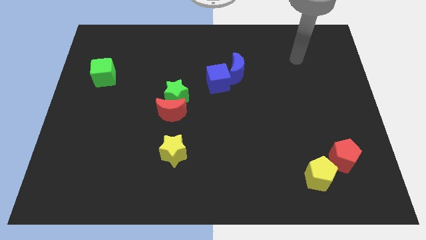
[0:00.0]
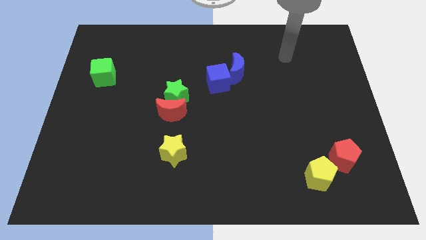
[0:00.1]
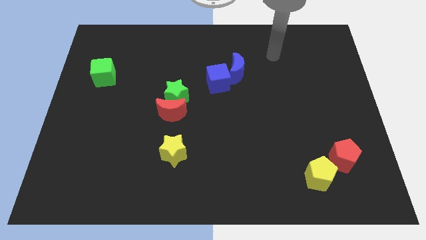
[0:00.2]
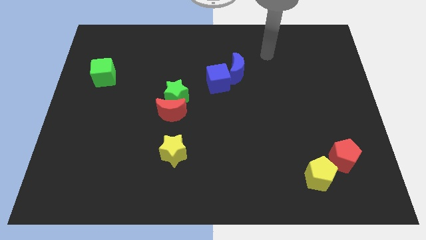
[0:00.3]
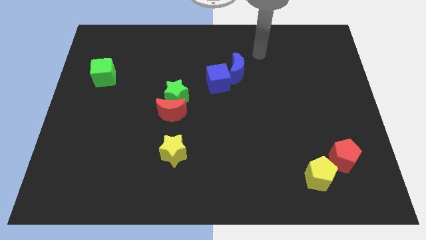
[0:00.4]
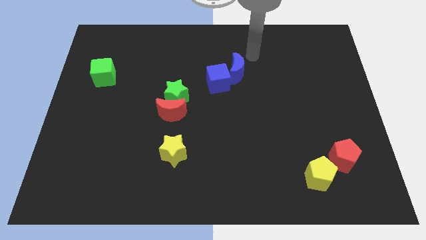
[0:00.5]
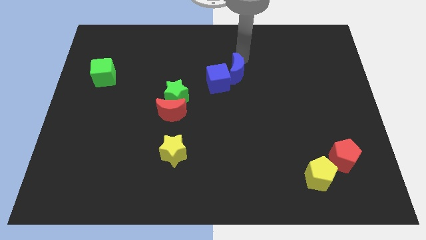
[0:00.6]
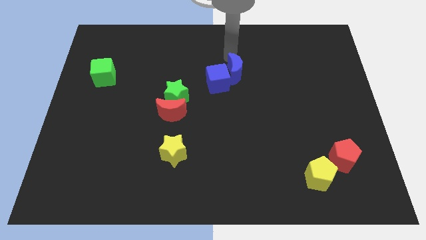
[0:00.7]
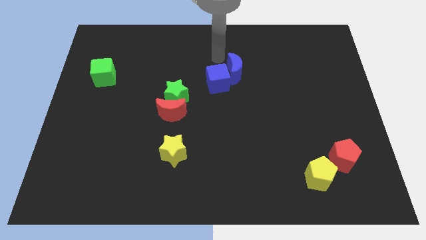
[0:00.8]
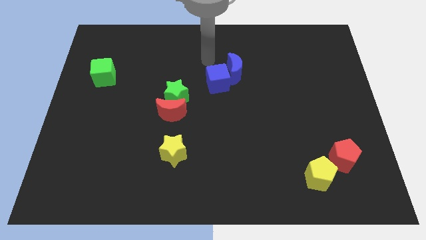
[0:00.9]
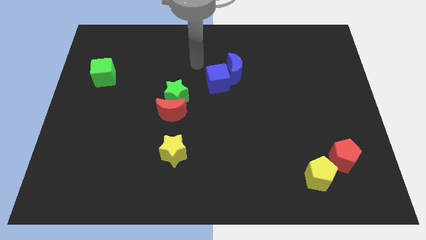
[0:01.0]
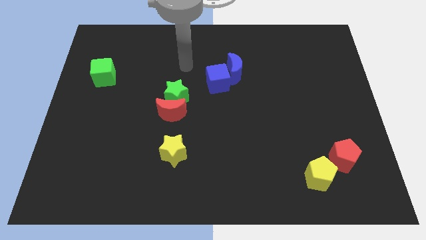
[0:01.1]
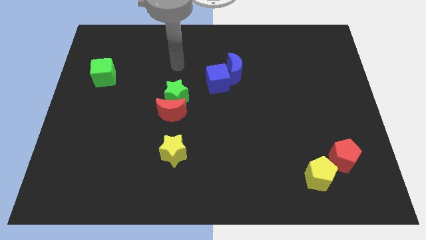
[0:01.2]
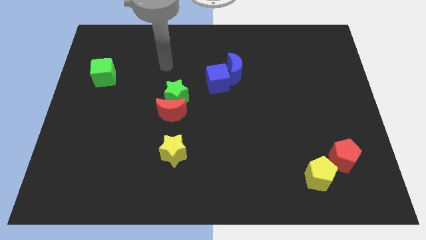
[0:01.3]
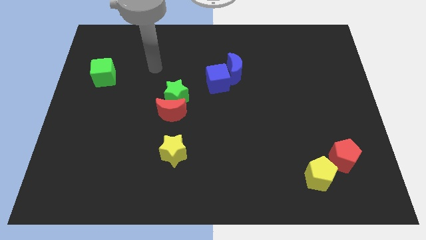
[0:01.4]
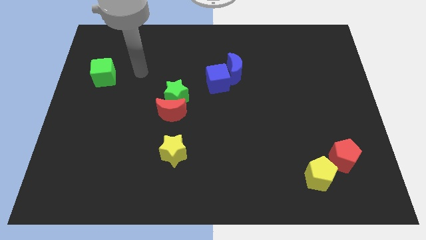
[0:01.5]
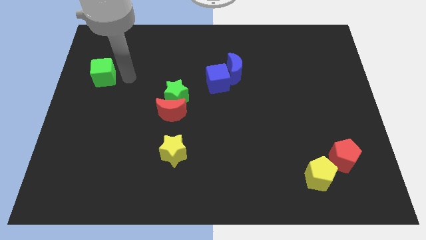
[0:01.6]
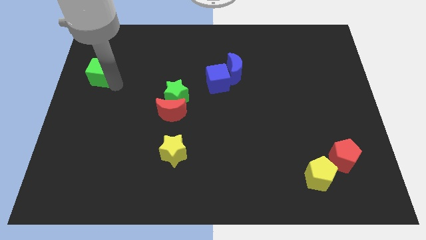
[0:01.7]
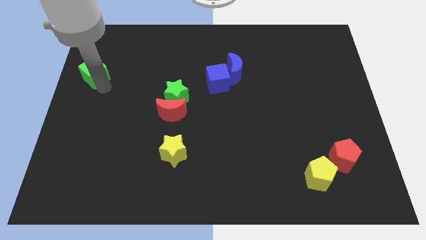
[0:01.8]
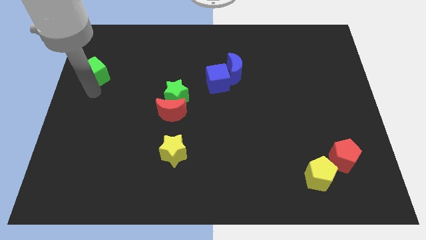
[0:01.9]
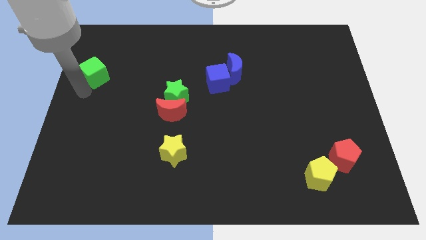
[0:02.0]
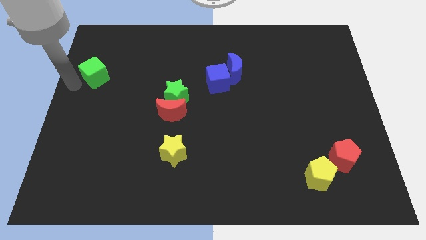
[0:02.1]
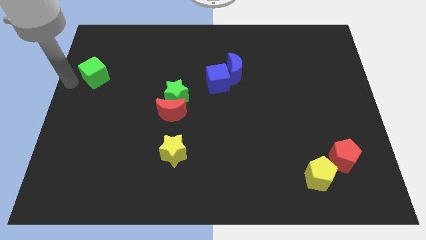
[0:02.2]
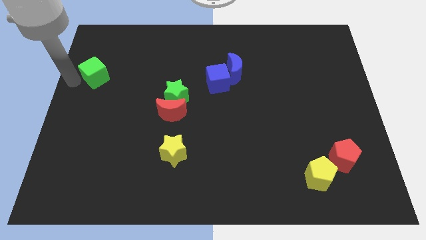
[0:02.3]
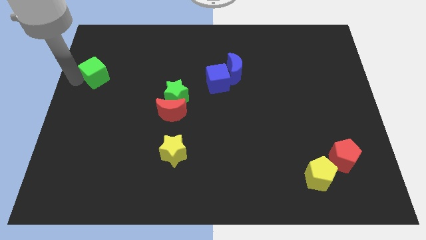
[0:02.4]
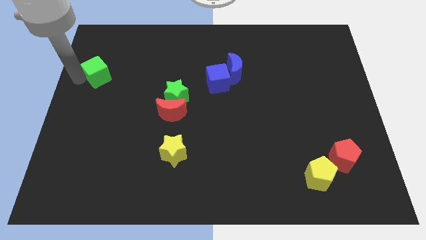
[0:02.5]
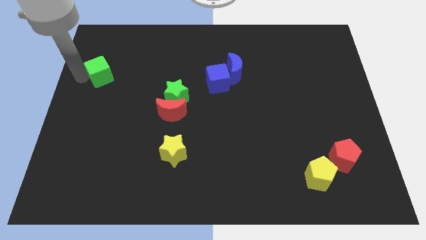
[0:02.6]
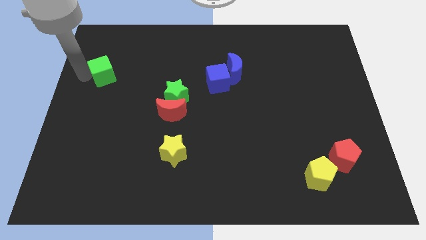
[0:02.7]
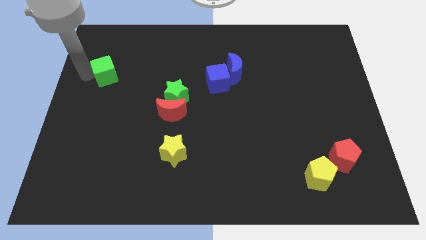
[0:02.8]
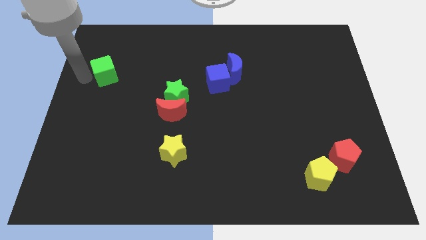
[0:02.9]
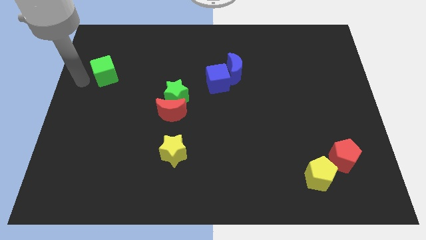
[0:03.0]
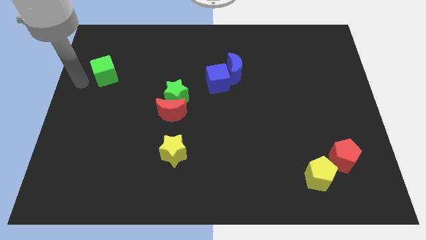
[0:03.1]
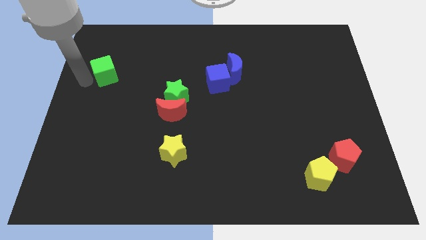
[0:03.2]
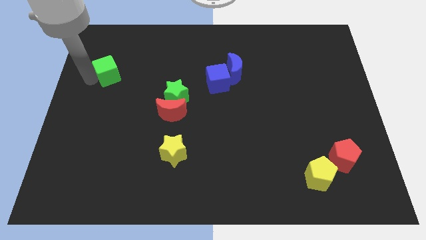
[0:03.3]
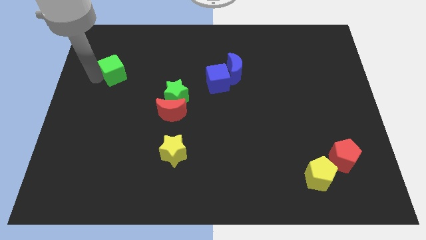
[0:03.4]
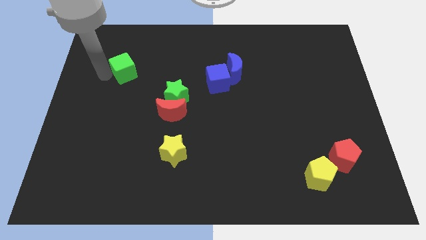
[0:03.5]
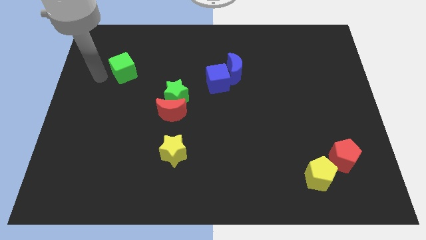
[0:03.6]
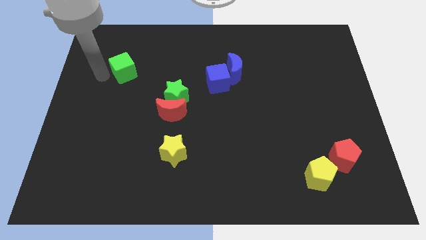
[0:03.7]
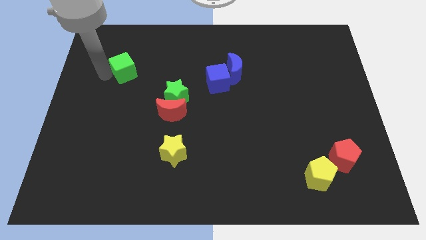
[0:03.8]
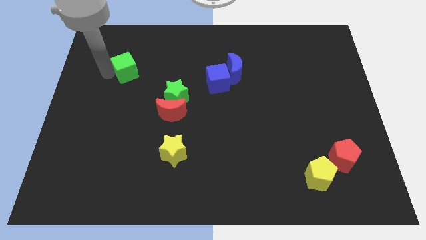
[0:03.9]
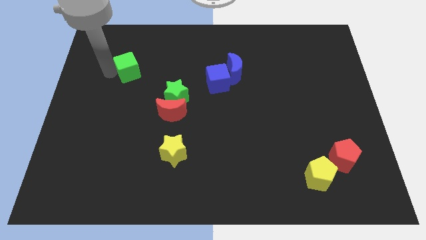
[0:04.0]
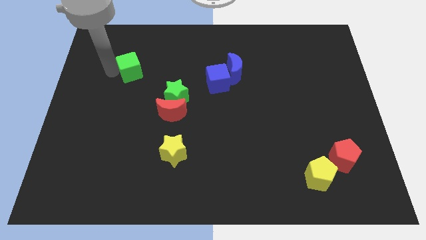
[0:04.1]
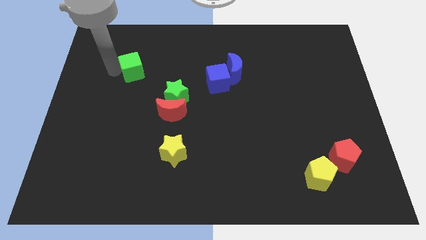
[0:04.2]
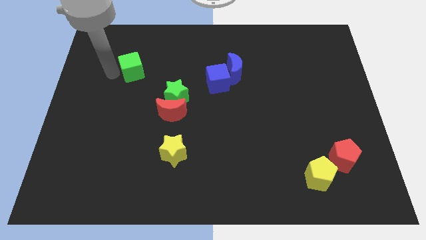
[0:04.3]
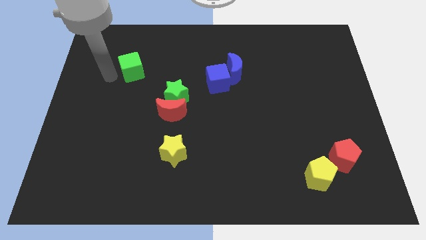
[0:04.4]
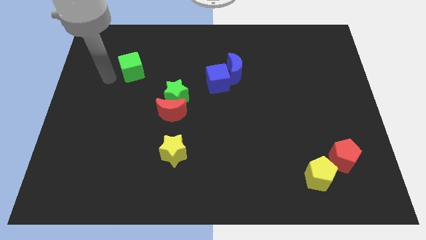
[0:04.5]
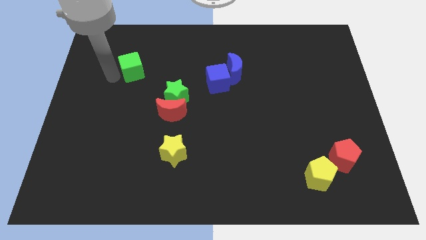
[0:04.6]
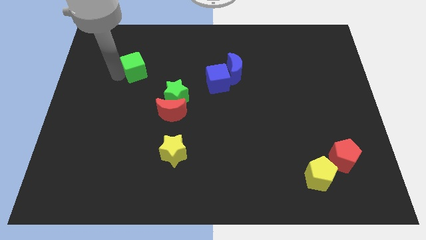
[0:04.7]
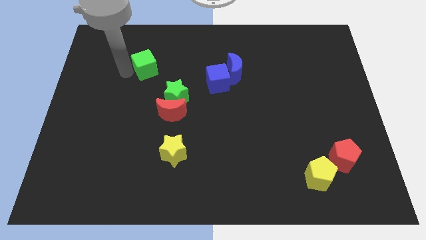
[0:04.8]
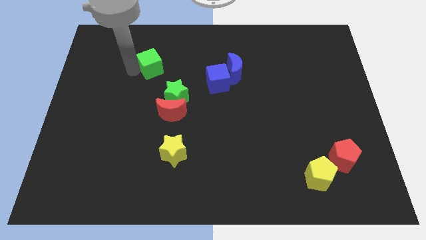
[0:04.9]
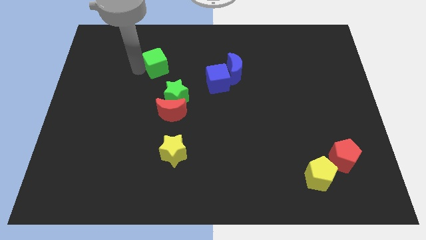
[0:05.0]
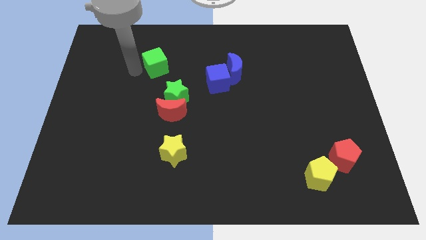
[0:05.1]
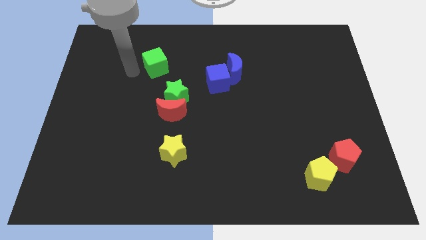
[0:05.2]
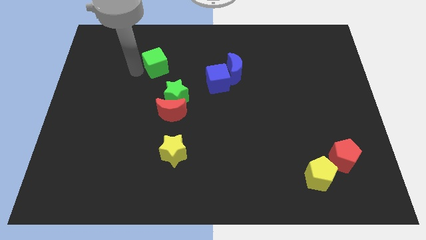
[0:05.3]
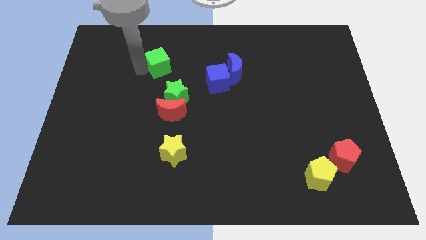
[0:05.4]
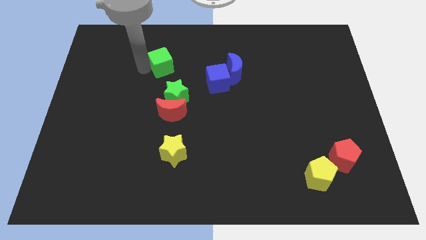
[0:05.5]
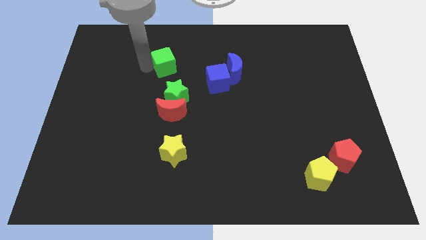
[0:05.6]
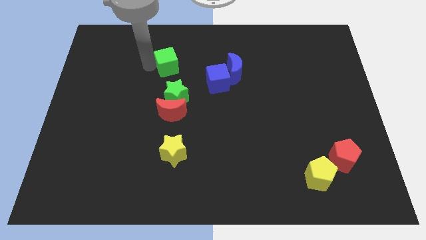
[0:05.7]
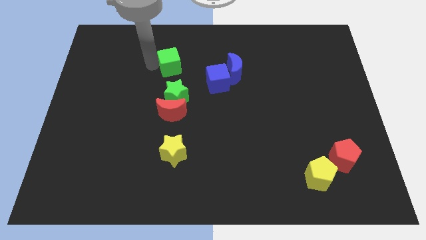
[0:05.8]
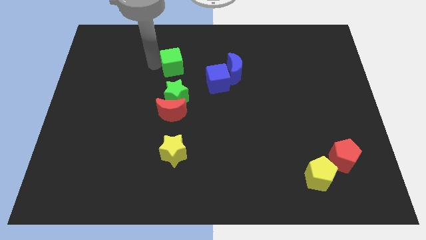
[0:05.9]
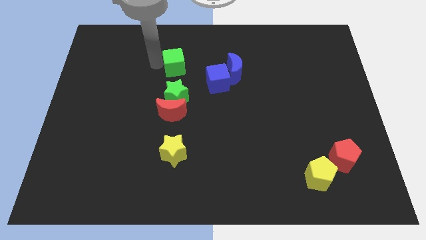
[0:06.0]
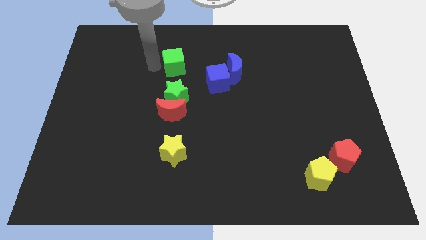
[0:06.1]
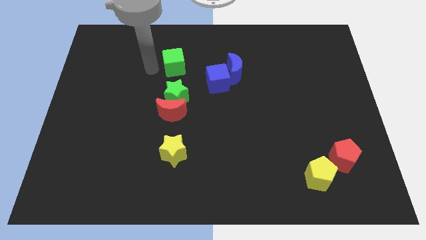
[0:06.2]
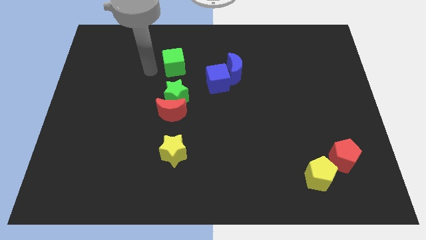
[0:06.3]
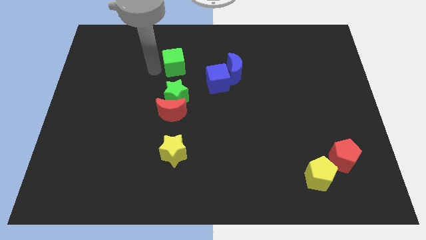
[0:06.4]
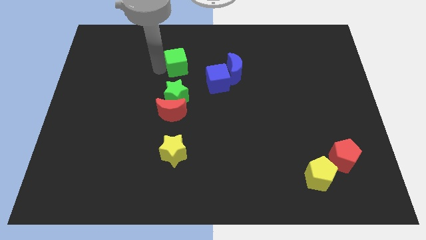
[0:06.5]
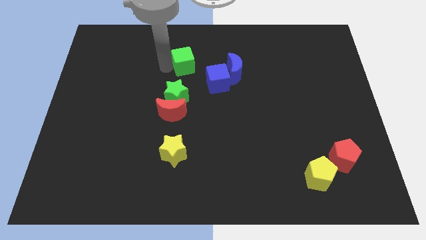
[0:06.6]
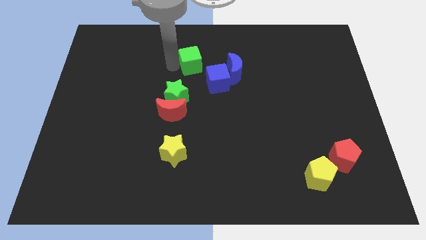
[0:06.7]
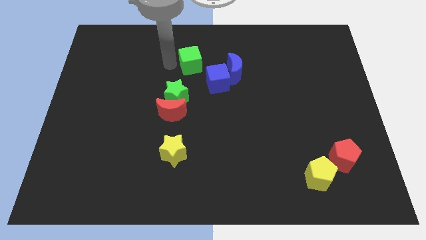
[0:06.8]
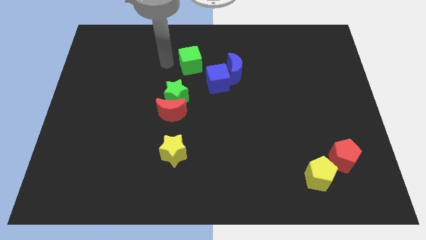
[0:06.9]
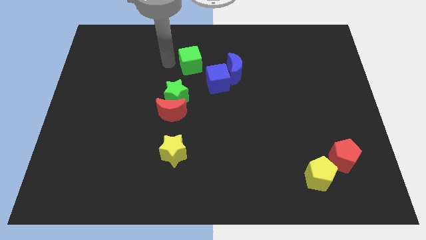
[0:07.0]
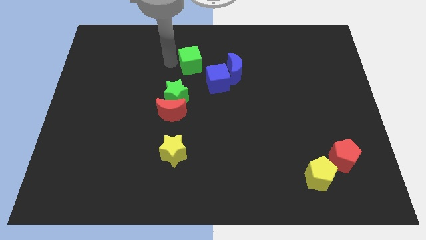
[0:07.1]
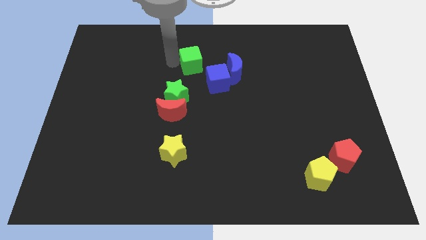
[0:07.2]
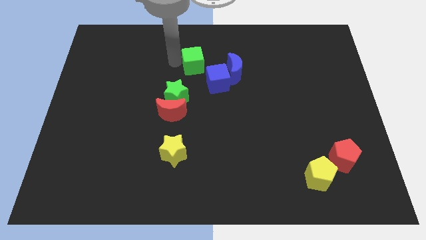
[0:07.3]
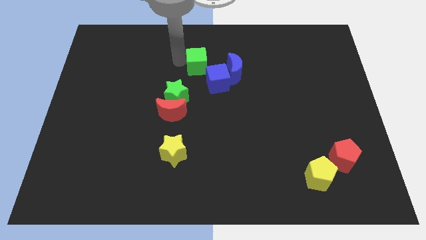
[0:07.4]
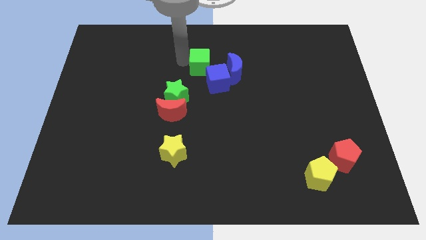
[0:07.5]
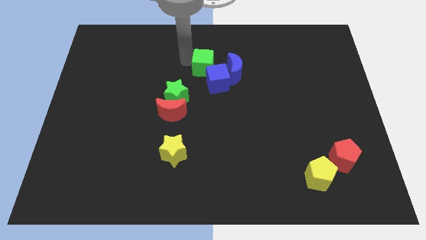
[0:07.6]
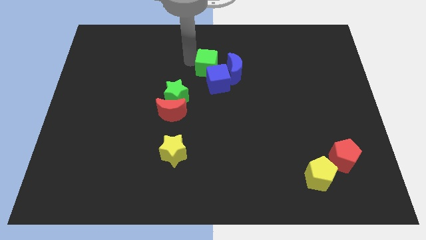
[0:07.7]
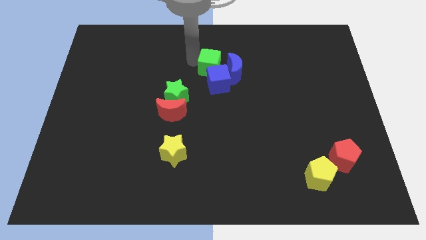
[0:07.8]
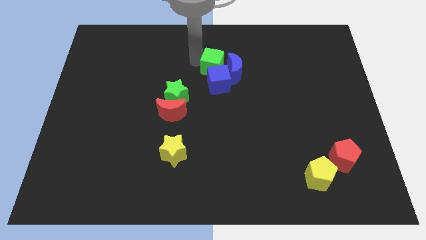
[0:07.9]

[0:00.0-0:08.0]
move the green cube next to the blue moon
